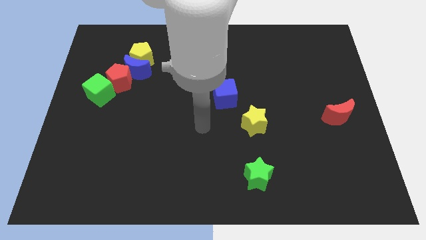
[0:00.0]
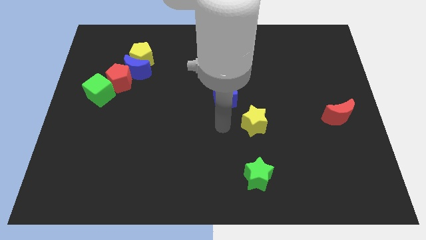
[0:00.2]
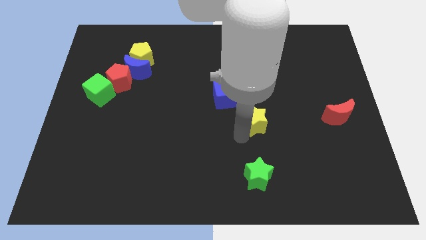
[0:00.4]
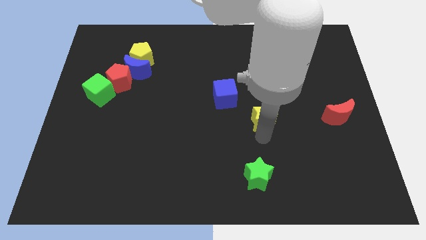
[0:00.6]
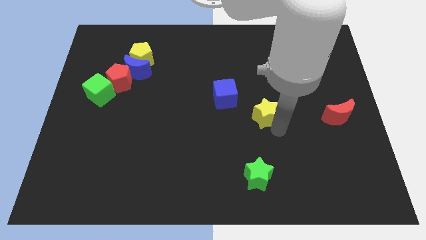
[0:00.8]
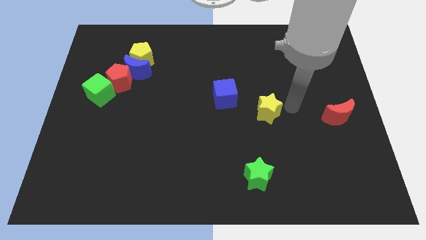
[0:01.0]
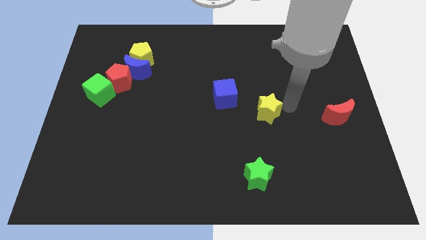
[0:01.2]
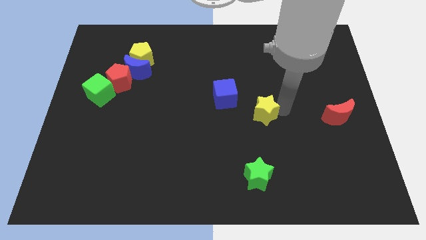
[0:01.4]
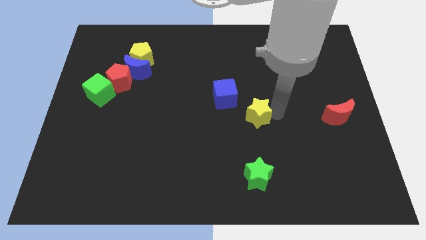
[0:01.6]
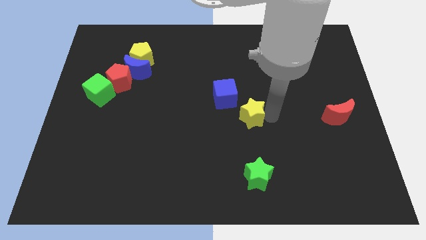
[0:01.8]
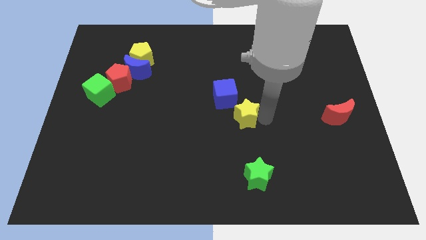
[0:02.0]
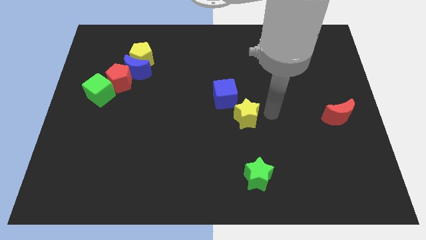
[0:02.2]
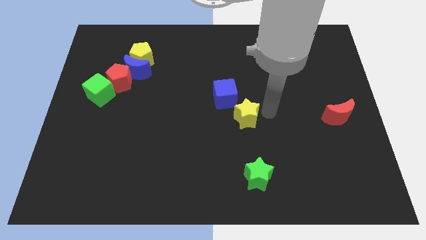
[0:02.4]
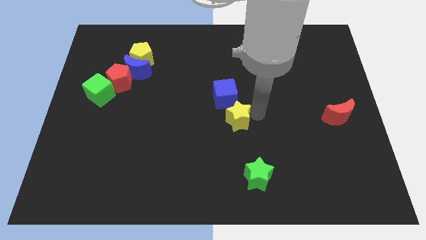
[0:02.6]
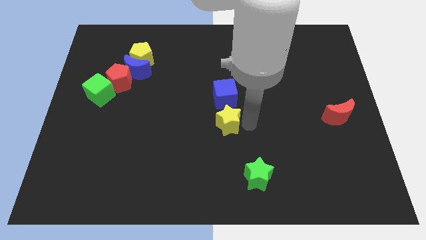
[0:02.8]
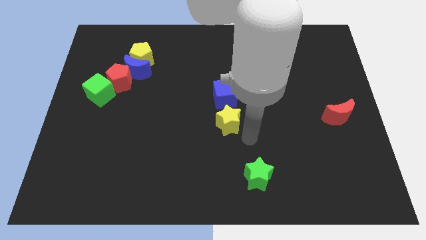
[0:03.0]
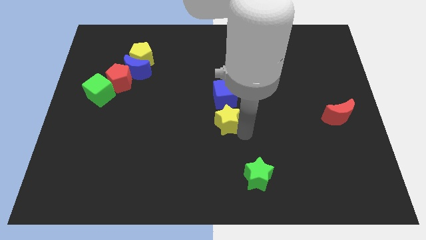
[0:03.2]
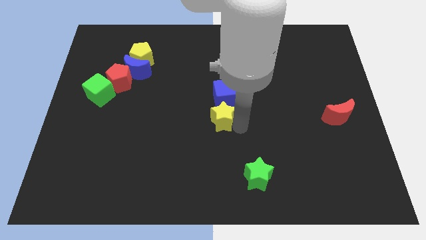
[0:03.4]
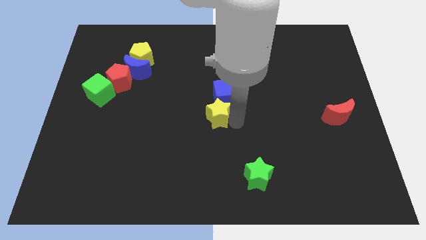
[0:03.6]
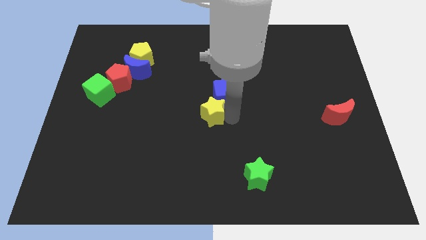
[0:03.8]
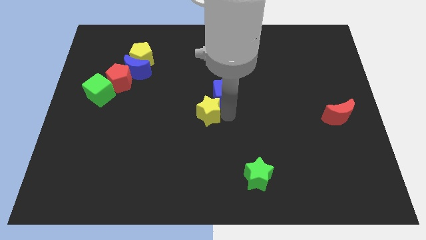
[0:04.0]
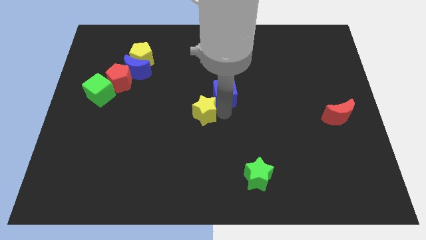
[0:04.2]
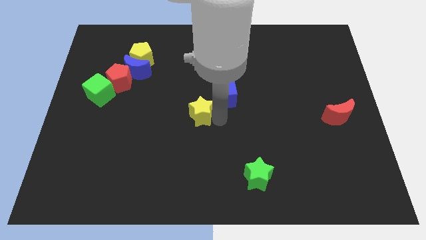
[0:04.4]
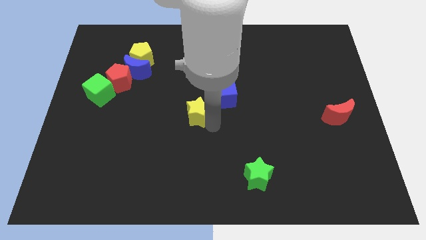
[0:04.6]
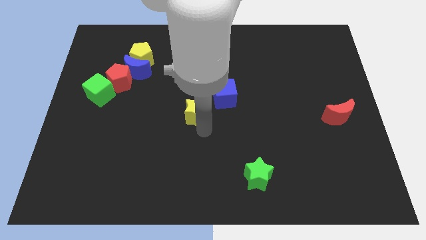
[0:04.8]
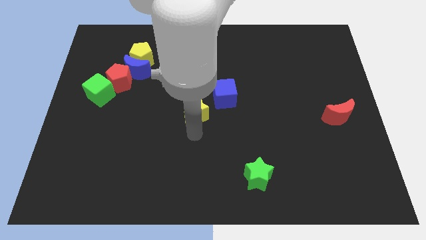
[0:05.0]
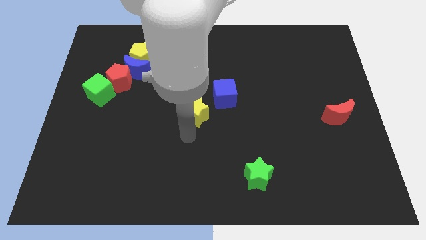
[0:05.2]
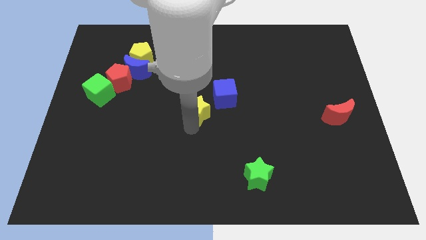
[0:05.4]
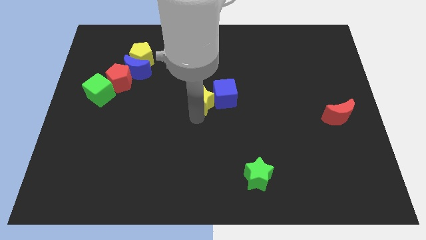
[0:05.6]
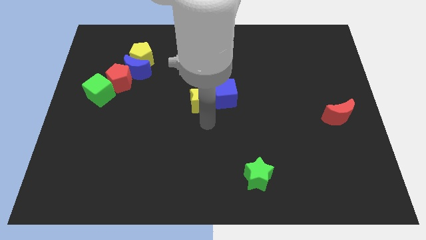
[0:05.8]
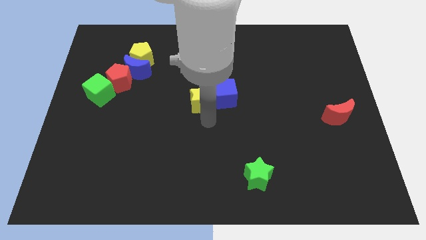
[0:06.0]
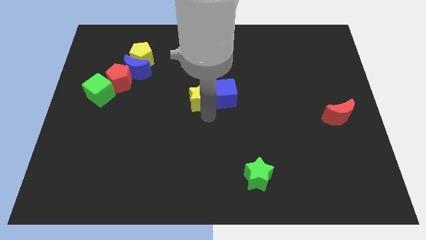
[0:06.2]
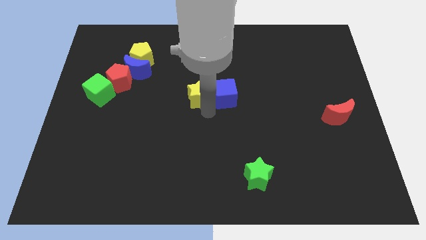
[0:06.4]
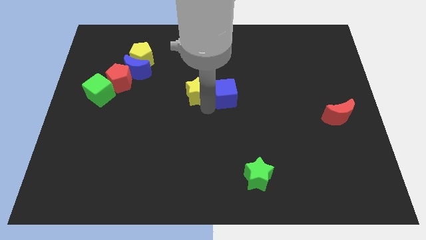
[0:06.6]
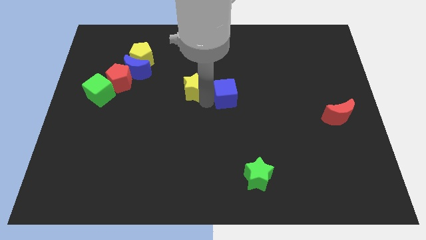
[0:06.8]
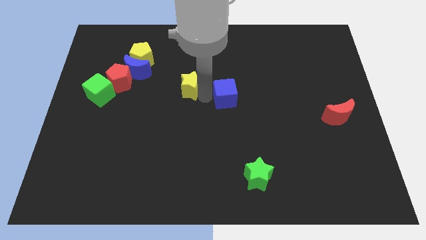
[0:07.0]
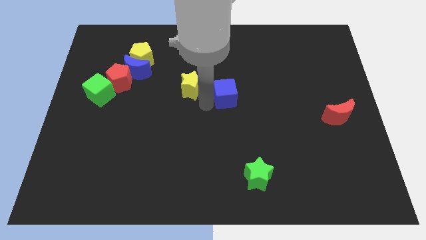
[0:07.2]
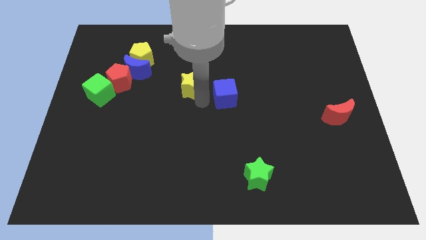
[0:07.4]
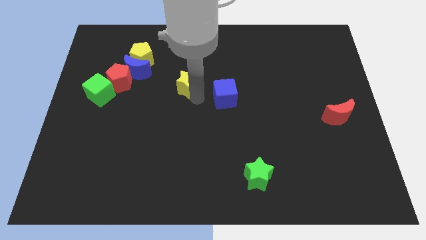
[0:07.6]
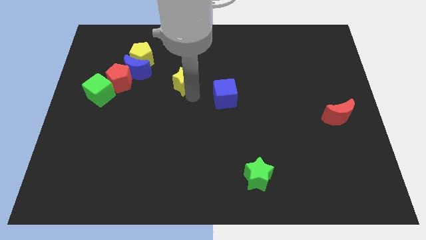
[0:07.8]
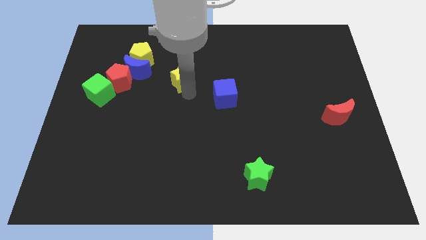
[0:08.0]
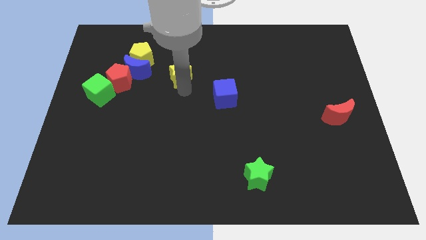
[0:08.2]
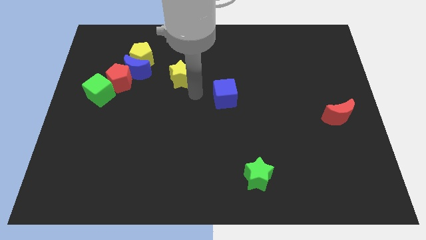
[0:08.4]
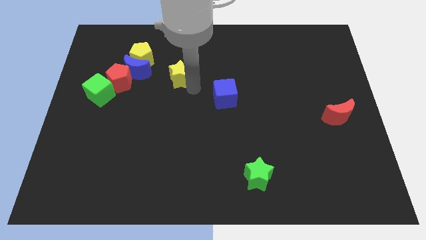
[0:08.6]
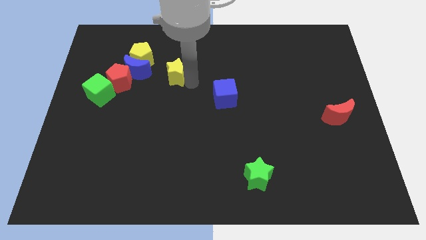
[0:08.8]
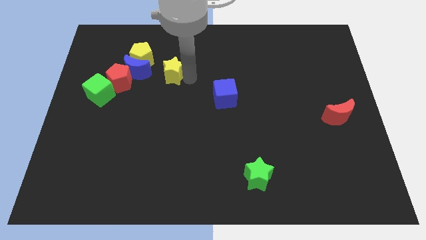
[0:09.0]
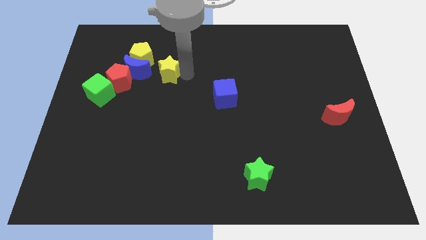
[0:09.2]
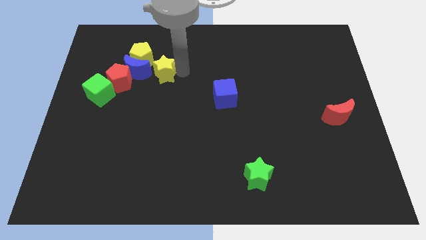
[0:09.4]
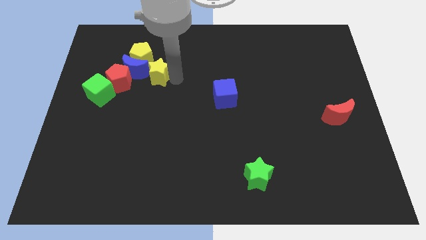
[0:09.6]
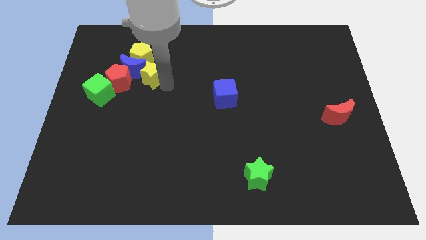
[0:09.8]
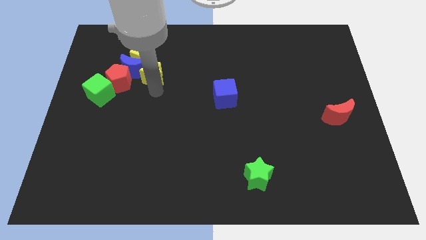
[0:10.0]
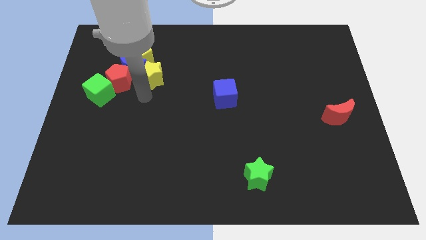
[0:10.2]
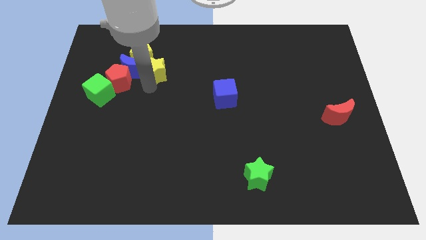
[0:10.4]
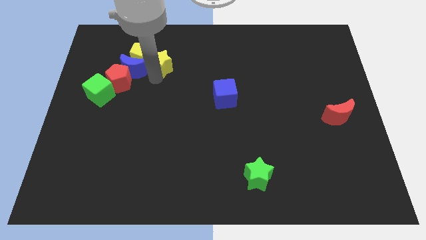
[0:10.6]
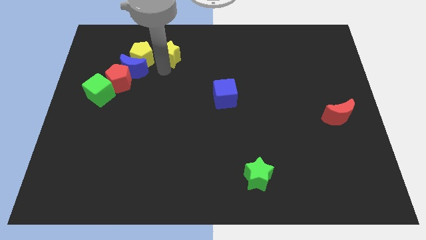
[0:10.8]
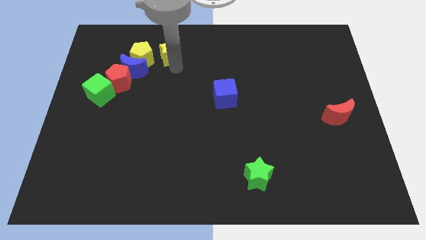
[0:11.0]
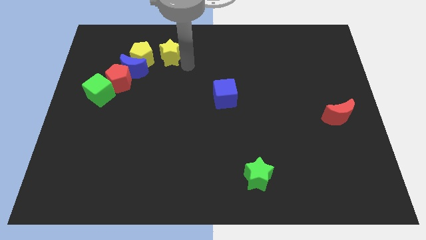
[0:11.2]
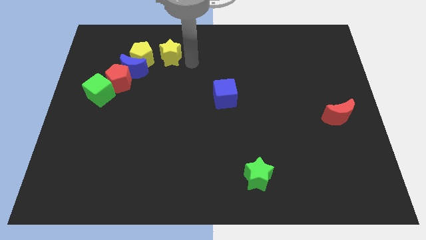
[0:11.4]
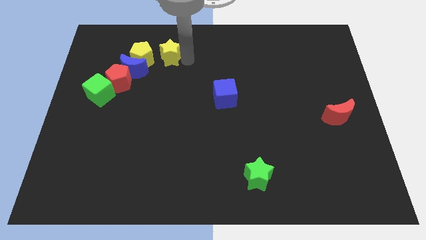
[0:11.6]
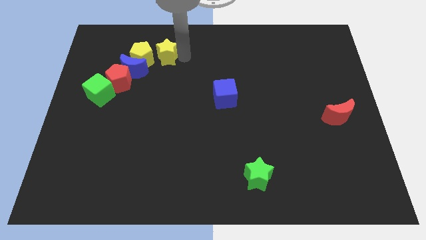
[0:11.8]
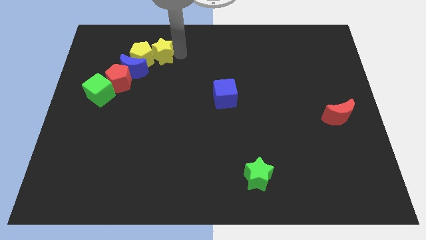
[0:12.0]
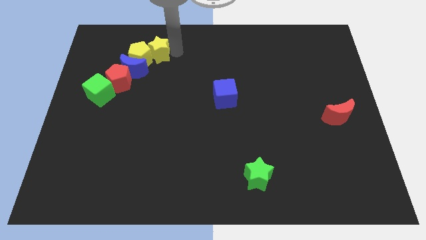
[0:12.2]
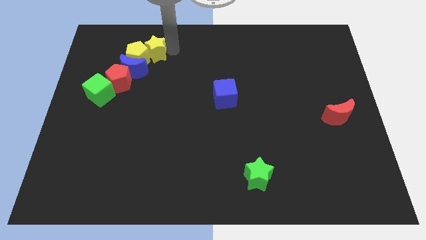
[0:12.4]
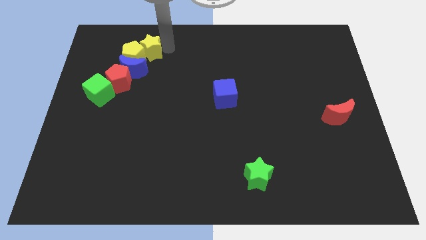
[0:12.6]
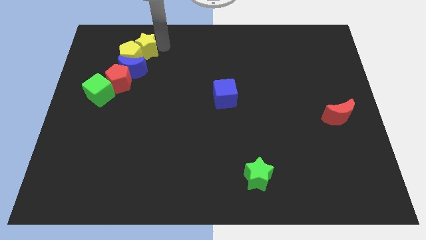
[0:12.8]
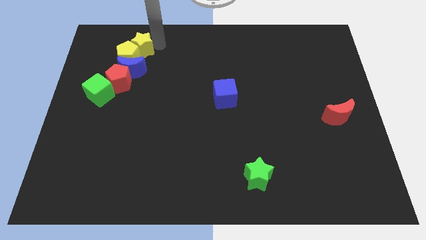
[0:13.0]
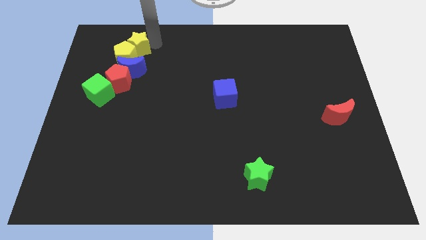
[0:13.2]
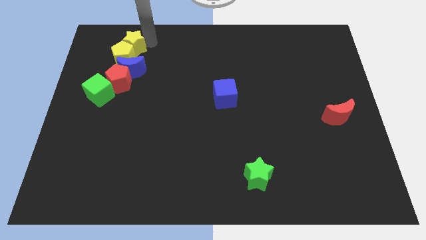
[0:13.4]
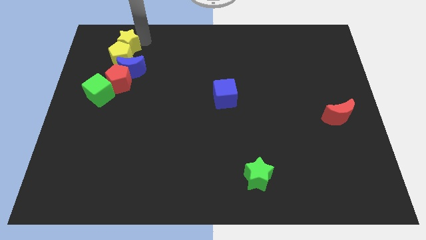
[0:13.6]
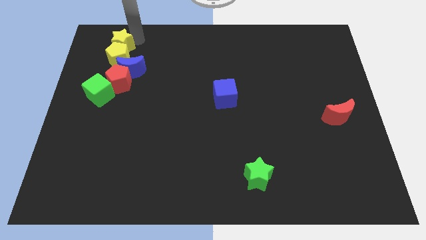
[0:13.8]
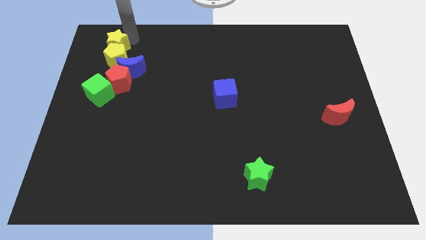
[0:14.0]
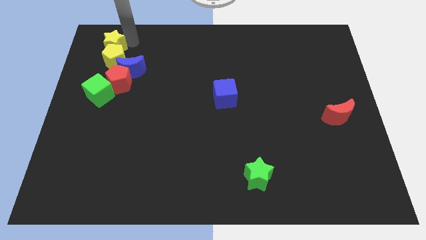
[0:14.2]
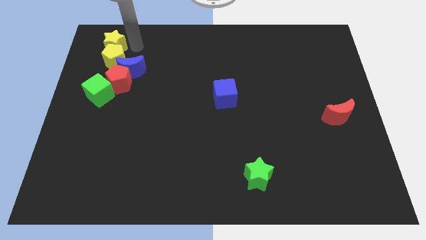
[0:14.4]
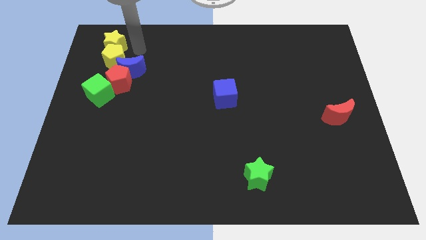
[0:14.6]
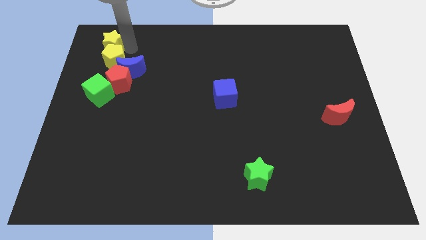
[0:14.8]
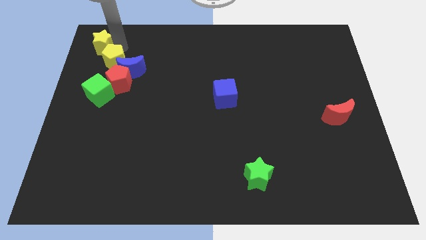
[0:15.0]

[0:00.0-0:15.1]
move the yellow star to the top left
